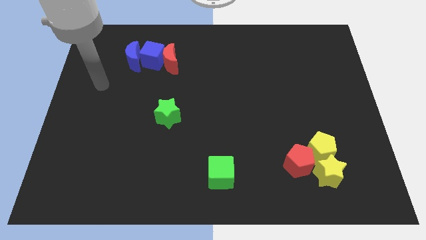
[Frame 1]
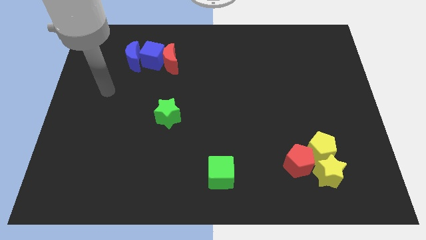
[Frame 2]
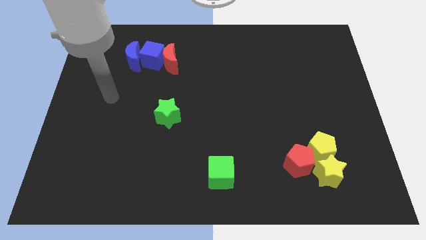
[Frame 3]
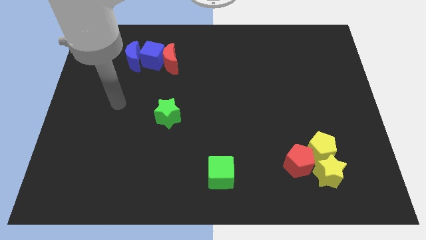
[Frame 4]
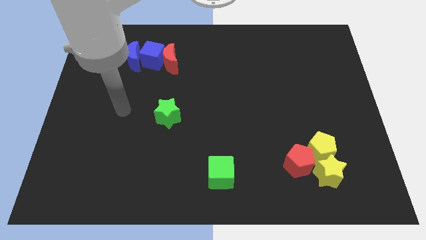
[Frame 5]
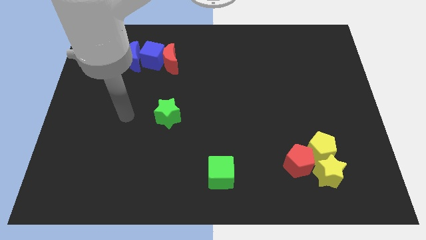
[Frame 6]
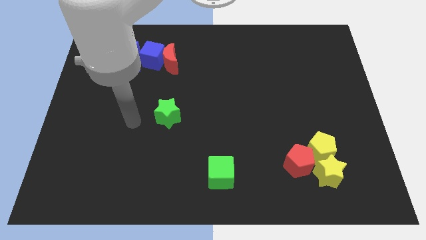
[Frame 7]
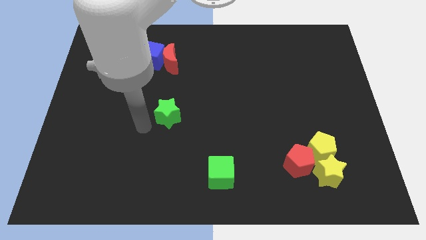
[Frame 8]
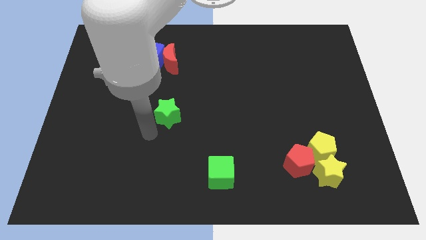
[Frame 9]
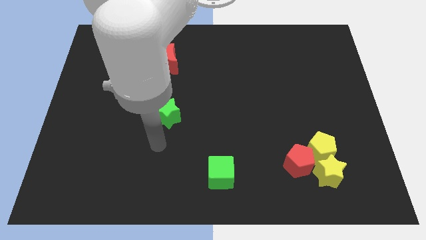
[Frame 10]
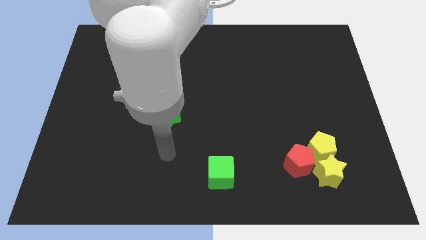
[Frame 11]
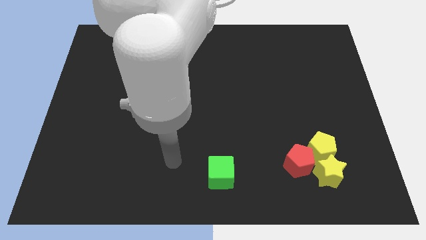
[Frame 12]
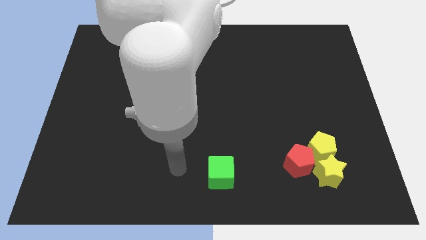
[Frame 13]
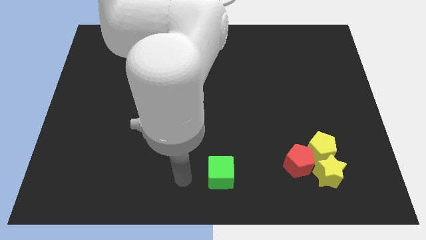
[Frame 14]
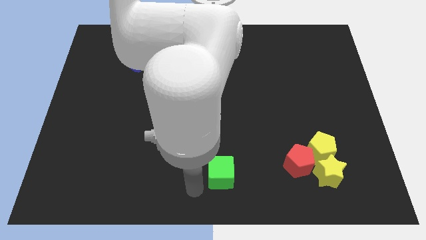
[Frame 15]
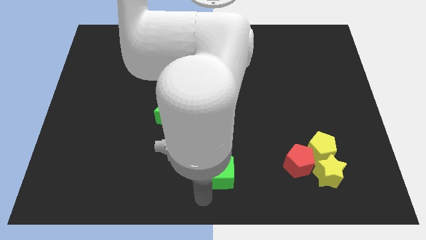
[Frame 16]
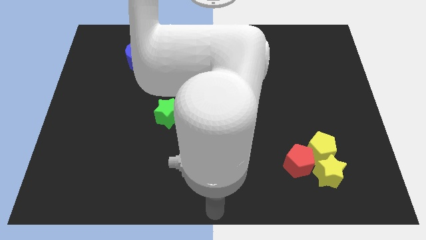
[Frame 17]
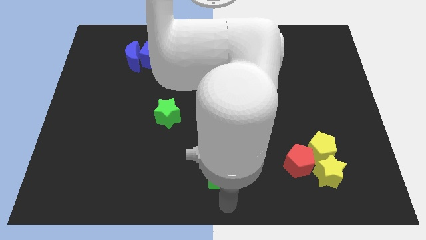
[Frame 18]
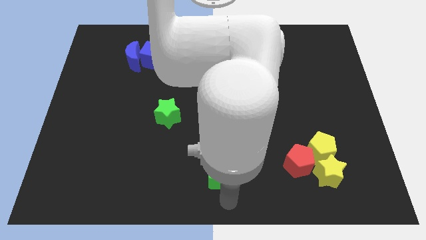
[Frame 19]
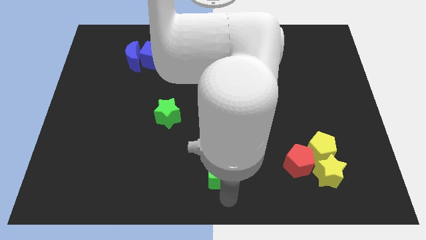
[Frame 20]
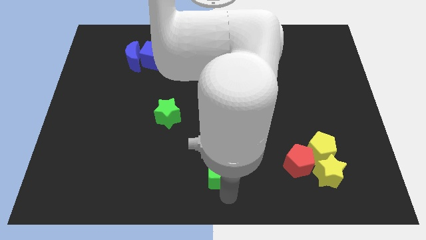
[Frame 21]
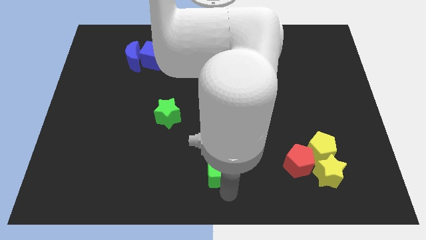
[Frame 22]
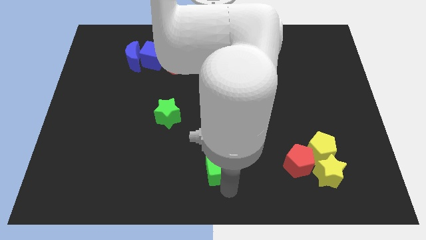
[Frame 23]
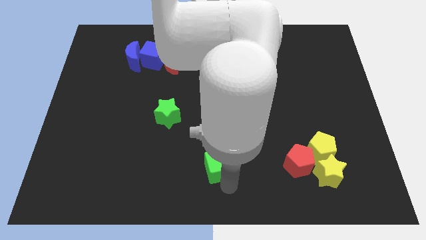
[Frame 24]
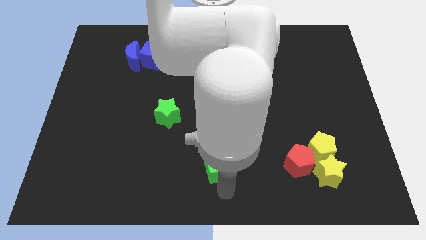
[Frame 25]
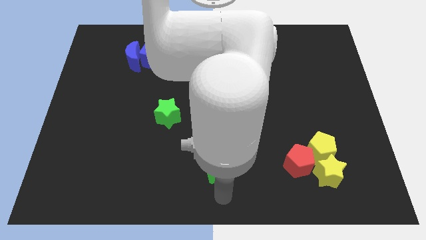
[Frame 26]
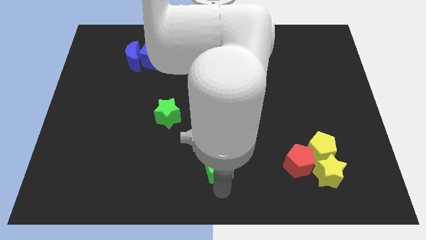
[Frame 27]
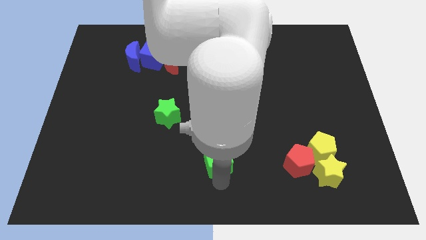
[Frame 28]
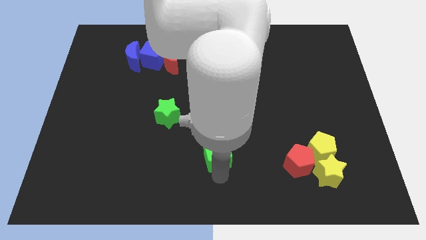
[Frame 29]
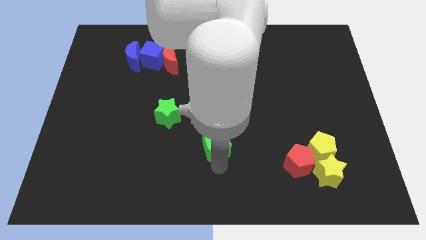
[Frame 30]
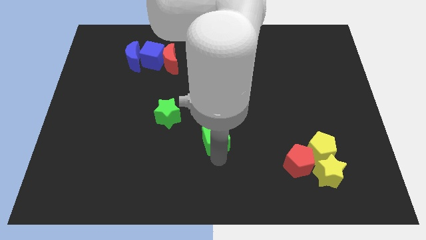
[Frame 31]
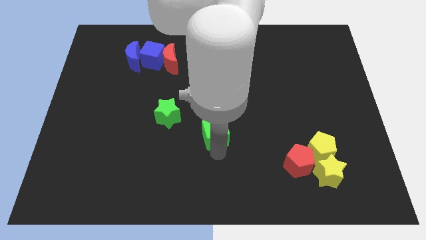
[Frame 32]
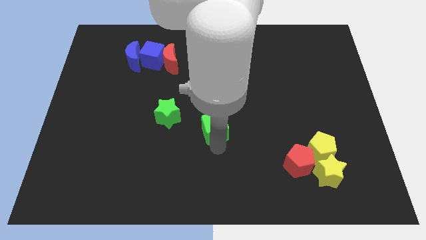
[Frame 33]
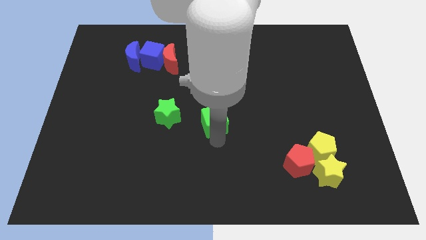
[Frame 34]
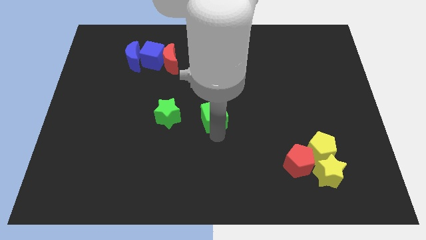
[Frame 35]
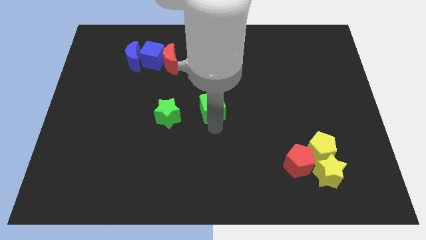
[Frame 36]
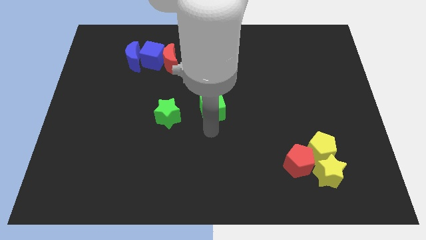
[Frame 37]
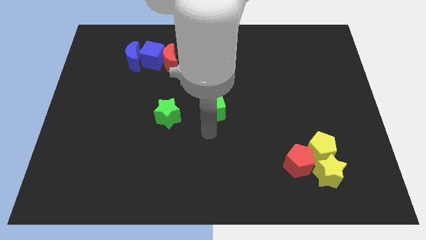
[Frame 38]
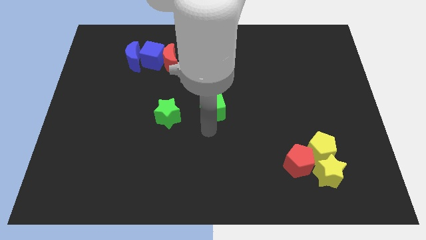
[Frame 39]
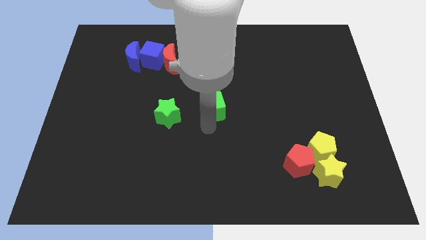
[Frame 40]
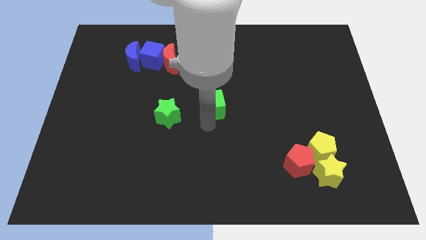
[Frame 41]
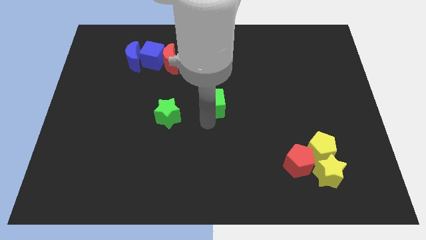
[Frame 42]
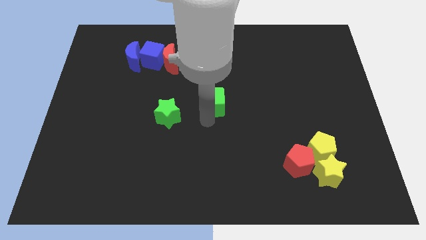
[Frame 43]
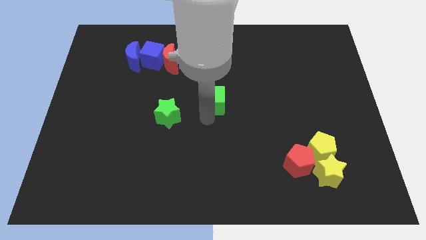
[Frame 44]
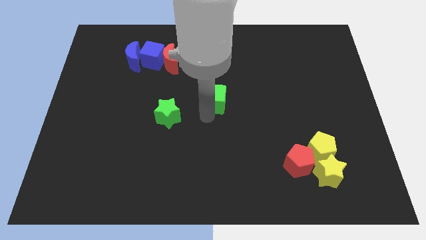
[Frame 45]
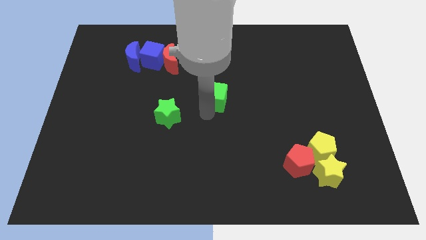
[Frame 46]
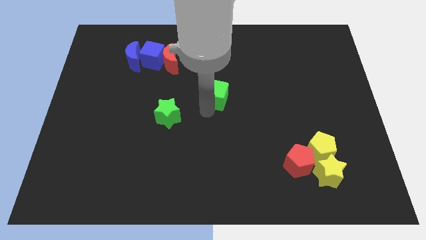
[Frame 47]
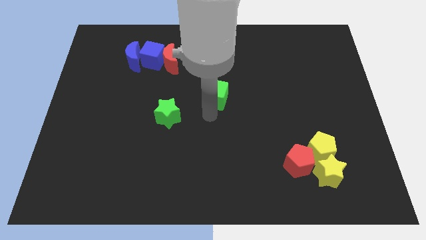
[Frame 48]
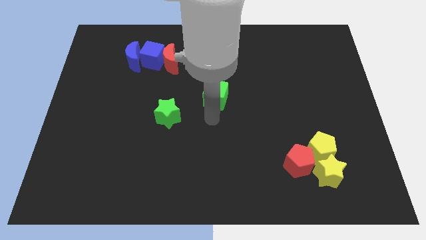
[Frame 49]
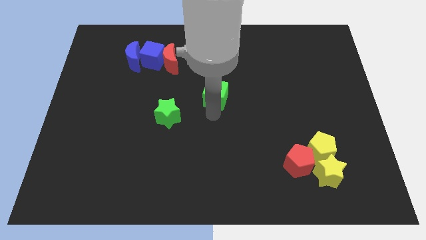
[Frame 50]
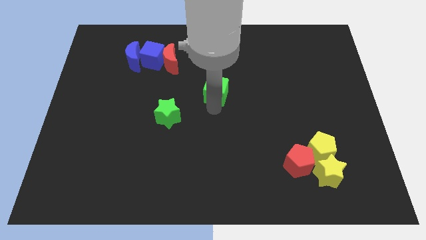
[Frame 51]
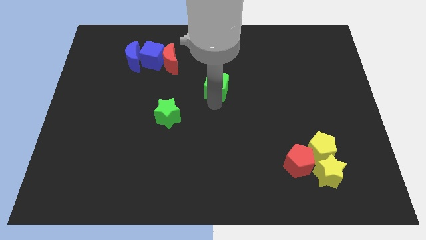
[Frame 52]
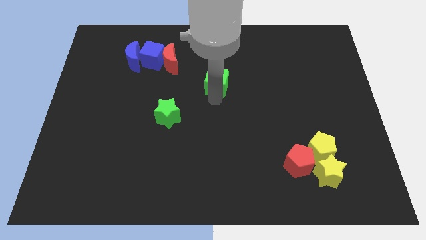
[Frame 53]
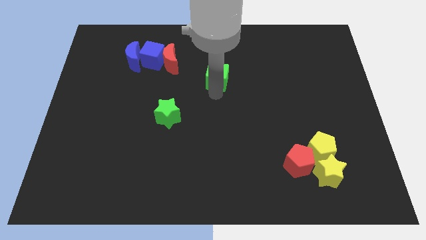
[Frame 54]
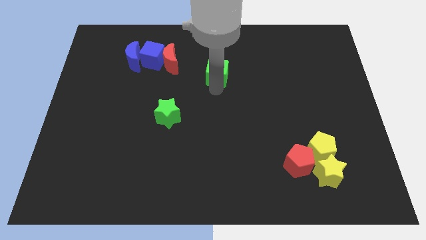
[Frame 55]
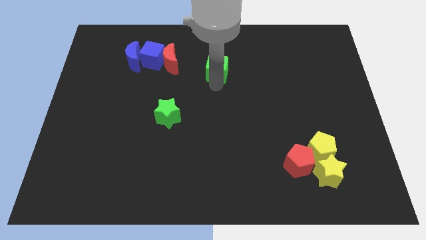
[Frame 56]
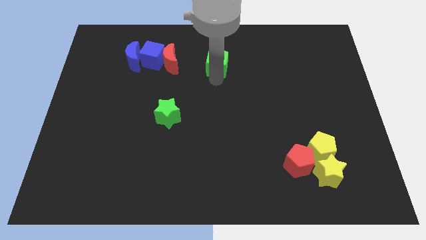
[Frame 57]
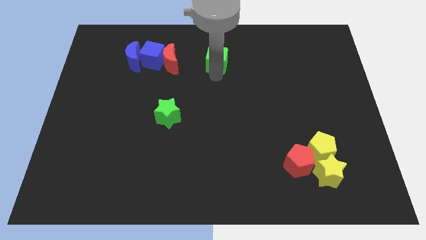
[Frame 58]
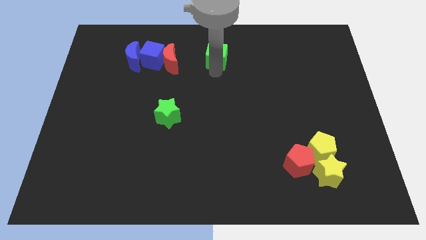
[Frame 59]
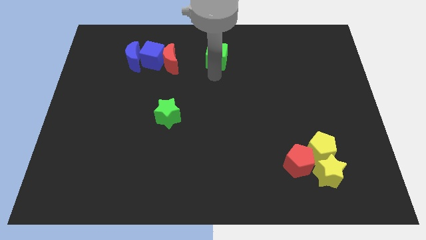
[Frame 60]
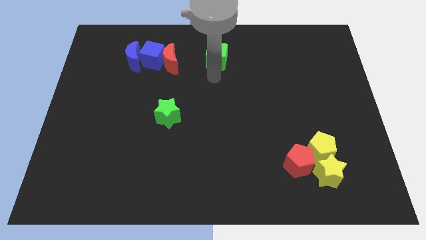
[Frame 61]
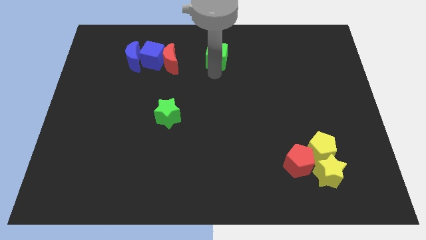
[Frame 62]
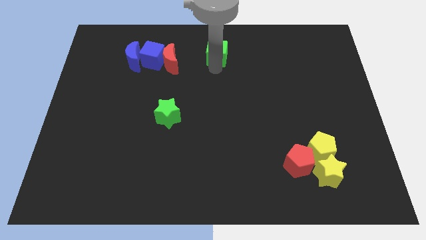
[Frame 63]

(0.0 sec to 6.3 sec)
move the green cube to the towards your base

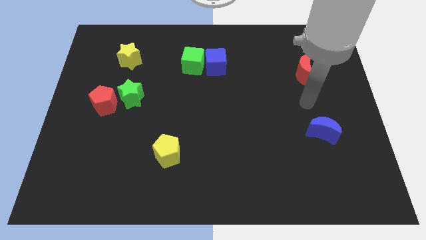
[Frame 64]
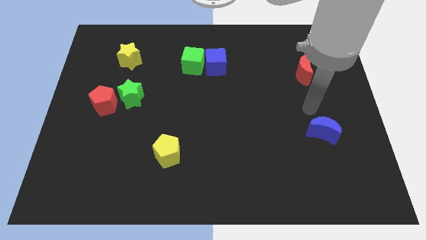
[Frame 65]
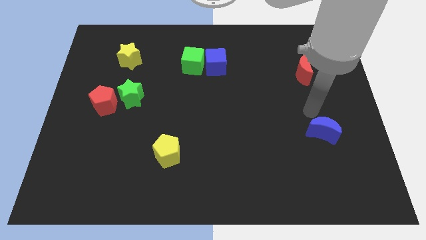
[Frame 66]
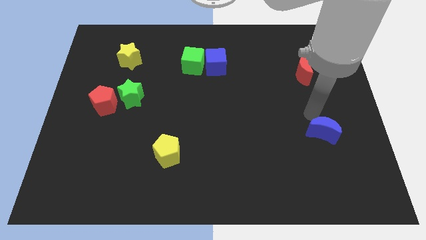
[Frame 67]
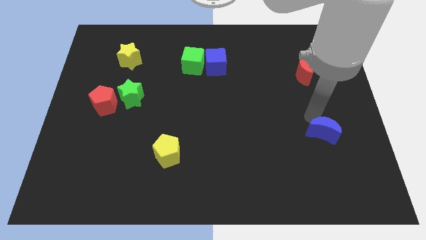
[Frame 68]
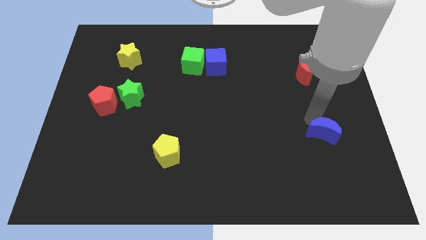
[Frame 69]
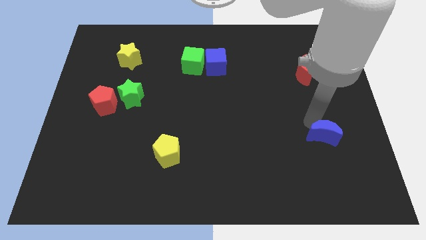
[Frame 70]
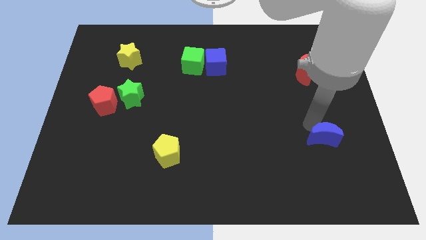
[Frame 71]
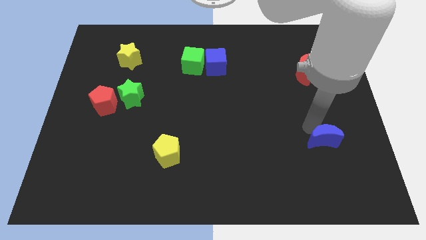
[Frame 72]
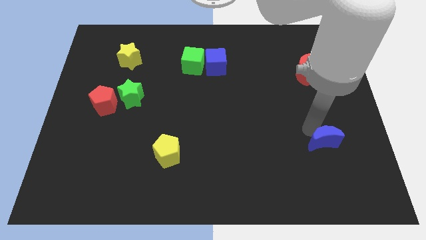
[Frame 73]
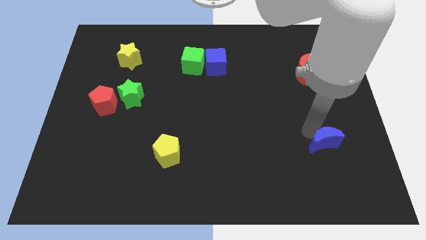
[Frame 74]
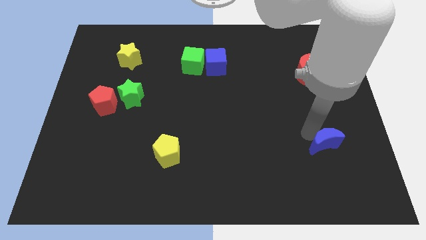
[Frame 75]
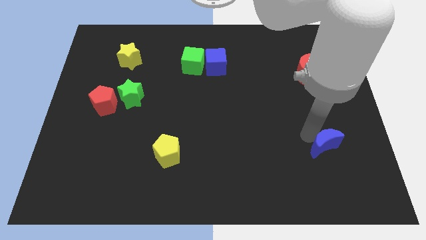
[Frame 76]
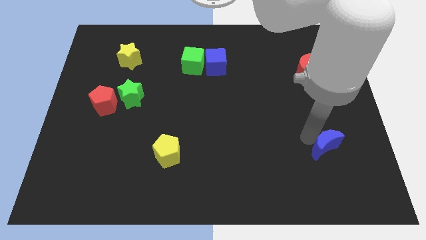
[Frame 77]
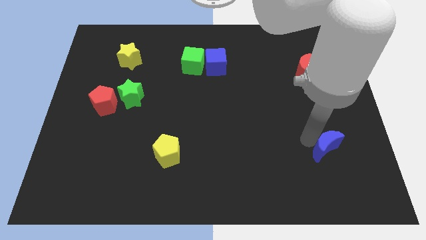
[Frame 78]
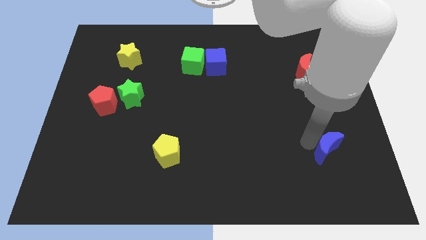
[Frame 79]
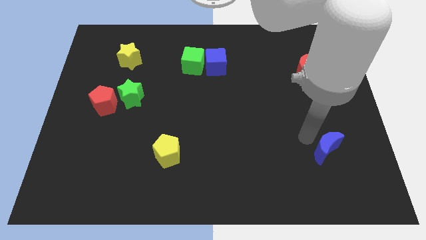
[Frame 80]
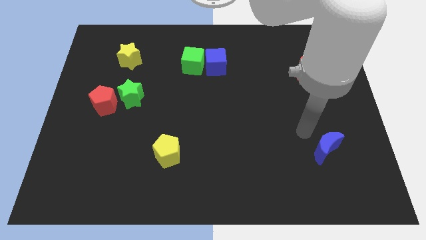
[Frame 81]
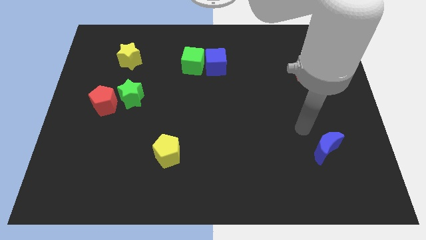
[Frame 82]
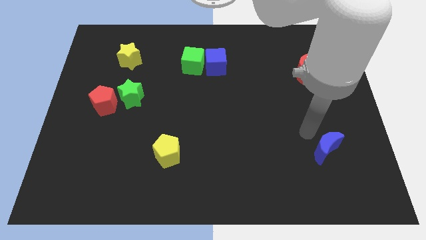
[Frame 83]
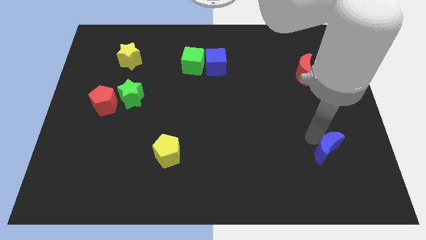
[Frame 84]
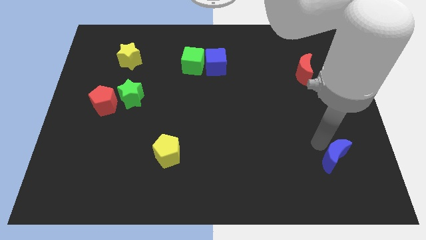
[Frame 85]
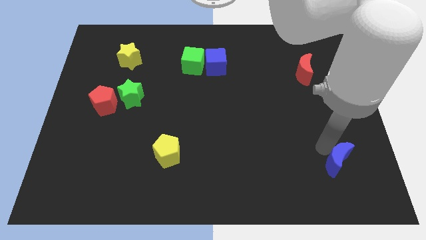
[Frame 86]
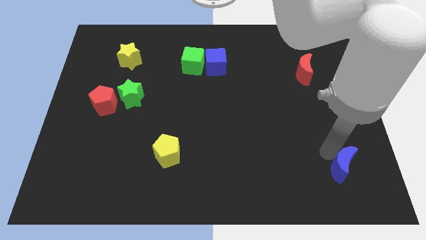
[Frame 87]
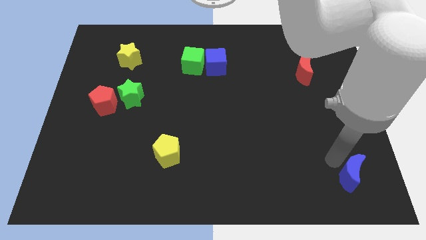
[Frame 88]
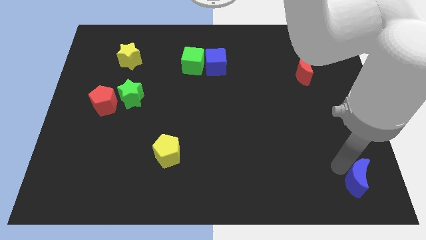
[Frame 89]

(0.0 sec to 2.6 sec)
put the blue moon to the bottom right corner
